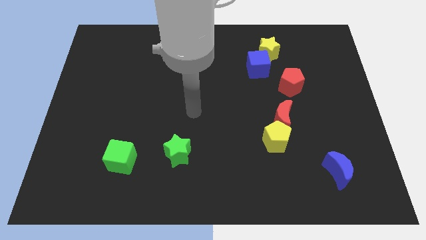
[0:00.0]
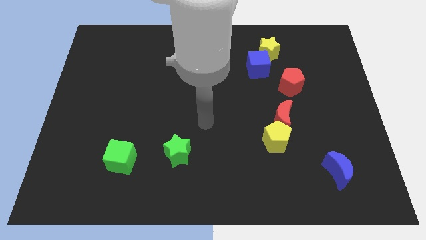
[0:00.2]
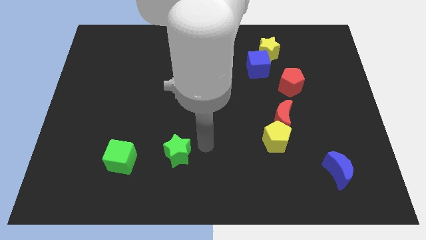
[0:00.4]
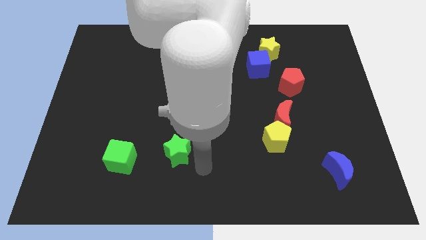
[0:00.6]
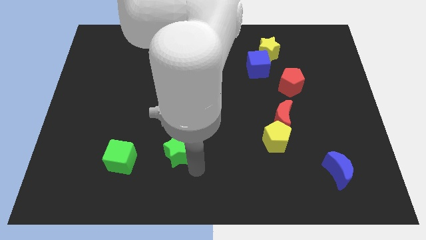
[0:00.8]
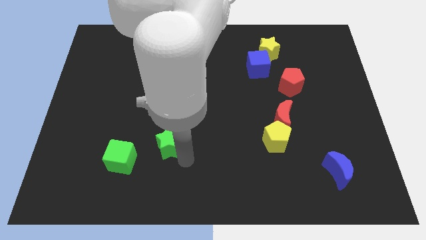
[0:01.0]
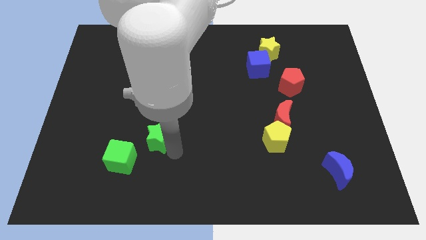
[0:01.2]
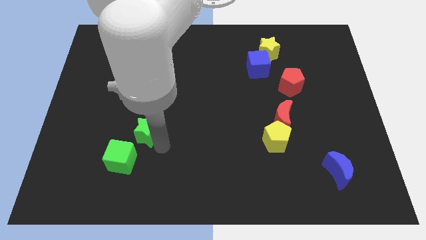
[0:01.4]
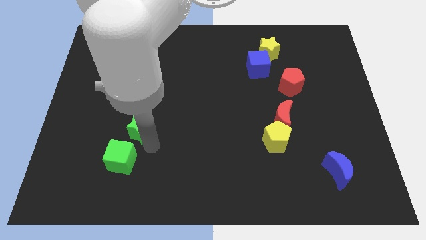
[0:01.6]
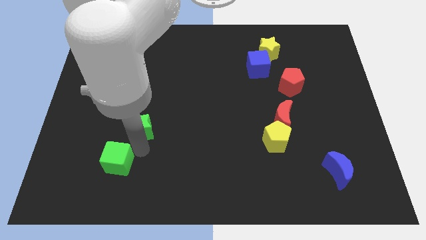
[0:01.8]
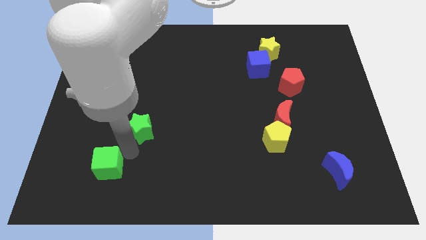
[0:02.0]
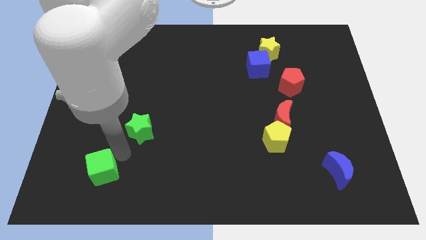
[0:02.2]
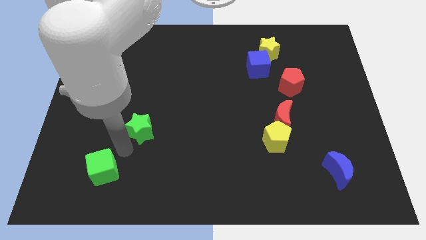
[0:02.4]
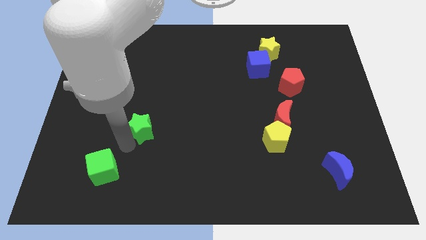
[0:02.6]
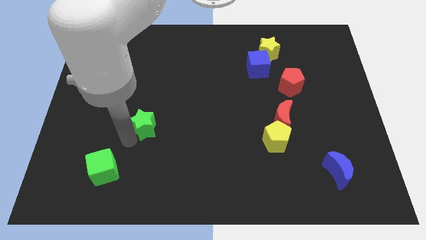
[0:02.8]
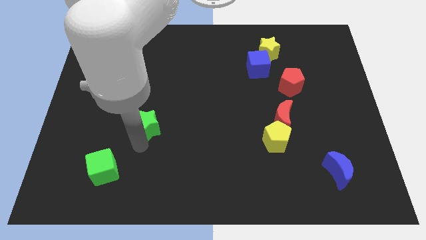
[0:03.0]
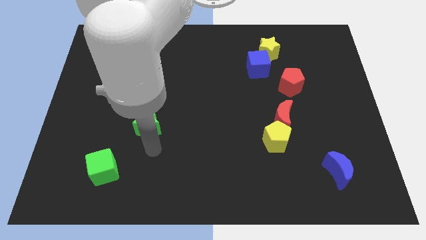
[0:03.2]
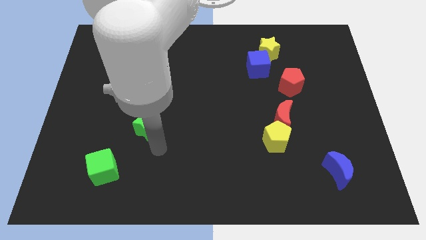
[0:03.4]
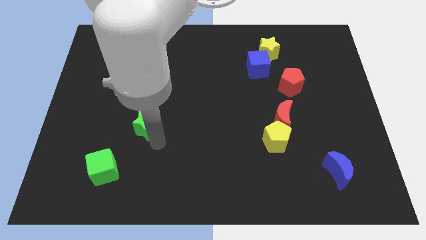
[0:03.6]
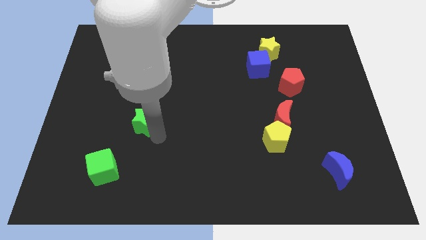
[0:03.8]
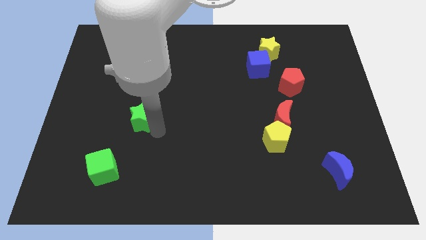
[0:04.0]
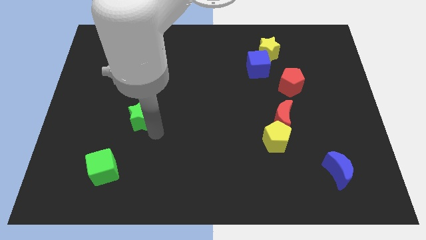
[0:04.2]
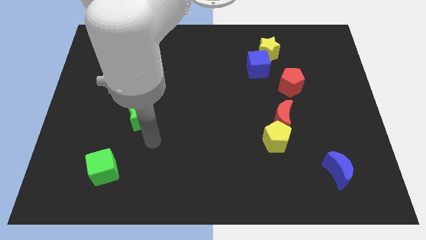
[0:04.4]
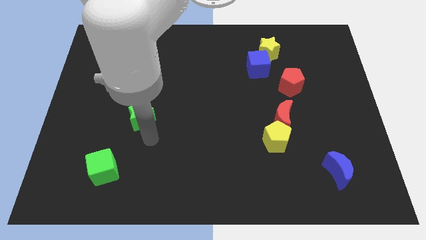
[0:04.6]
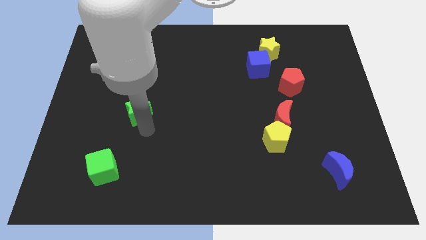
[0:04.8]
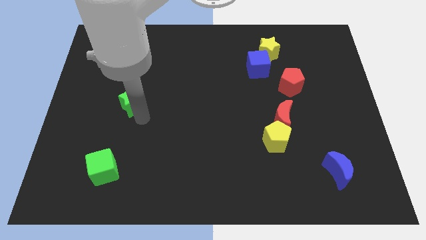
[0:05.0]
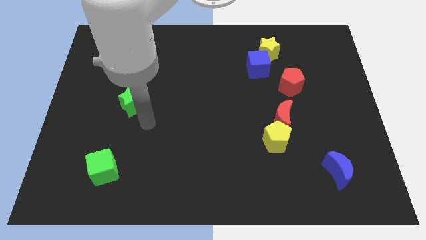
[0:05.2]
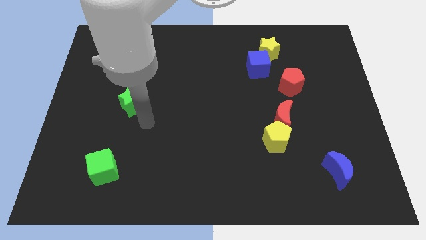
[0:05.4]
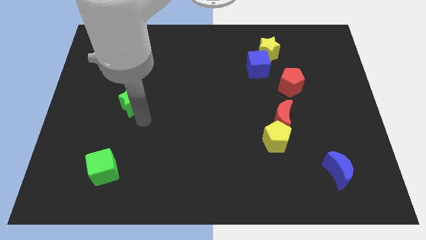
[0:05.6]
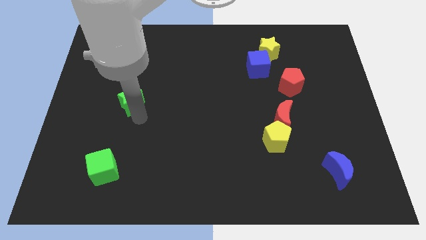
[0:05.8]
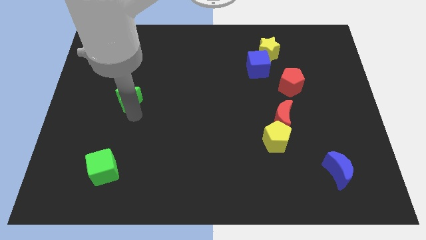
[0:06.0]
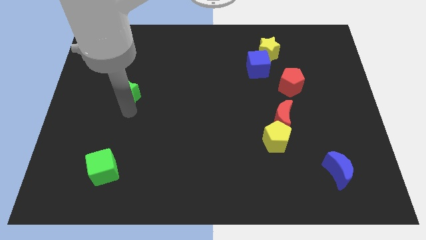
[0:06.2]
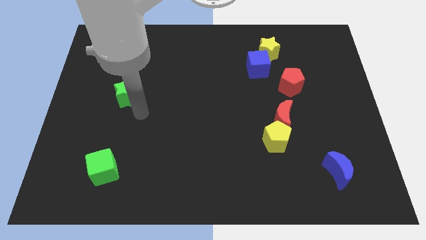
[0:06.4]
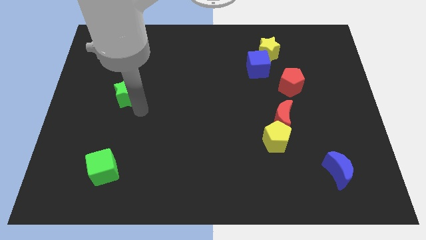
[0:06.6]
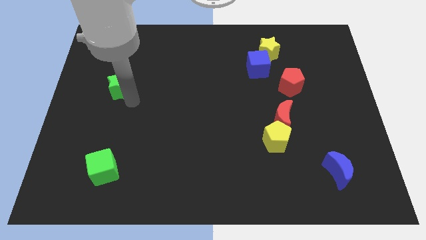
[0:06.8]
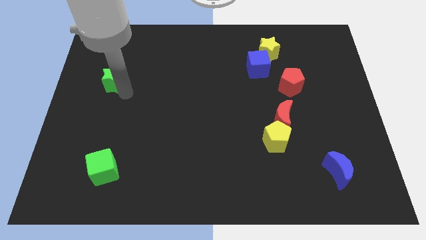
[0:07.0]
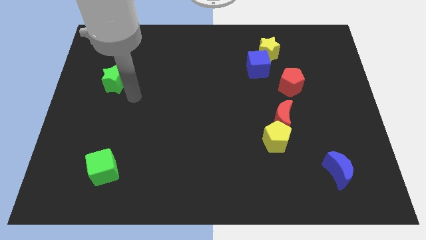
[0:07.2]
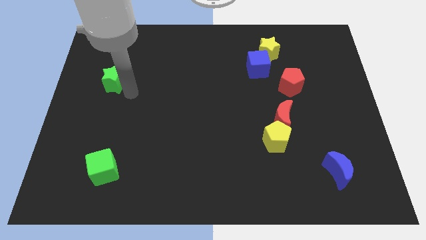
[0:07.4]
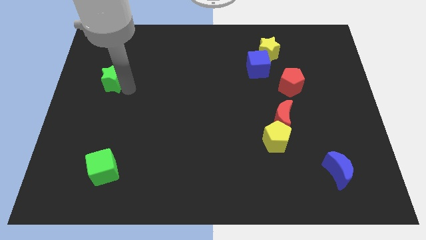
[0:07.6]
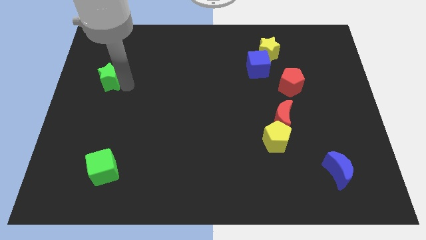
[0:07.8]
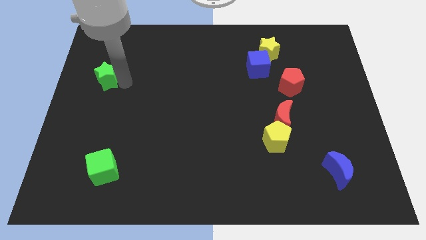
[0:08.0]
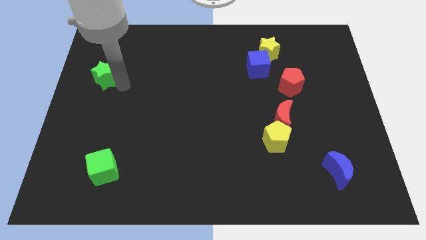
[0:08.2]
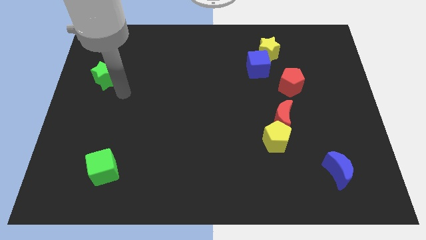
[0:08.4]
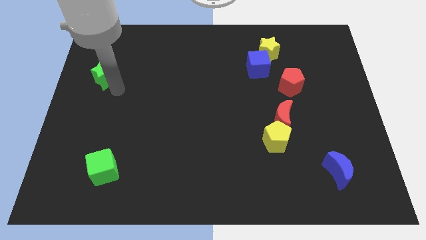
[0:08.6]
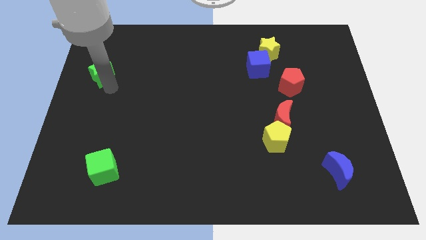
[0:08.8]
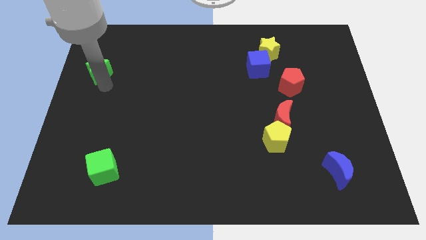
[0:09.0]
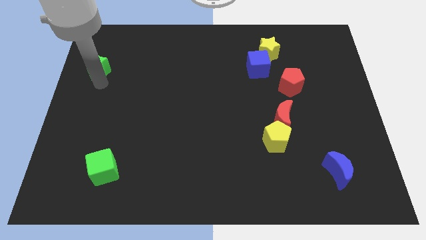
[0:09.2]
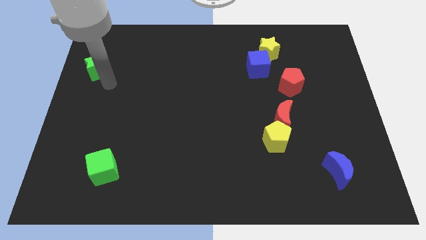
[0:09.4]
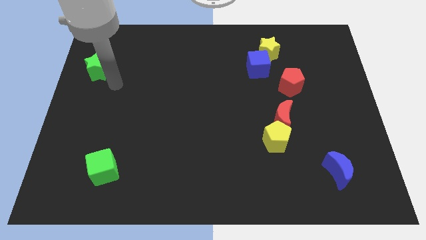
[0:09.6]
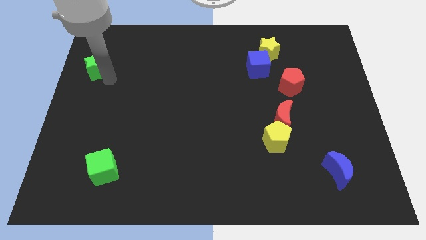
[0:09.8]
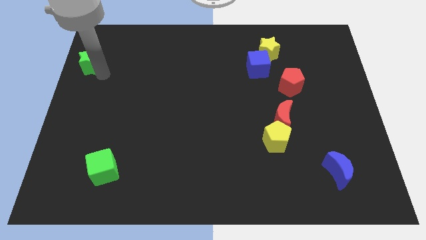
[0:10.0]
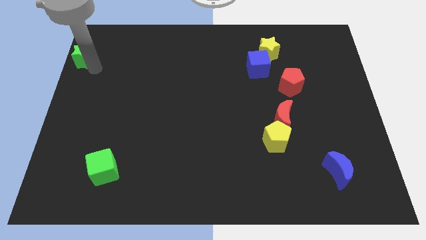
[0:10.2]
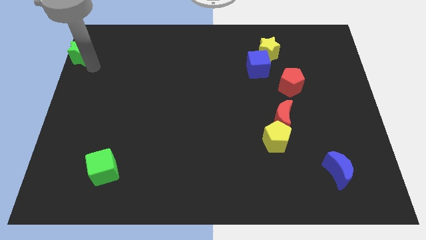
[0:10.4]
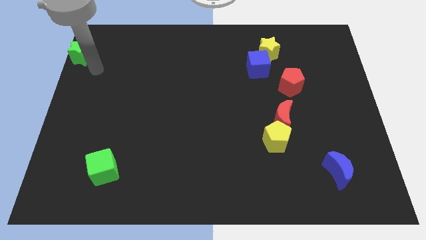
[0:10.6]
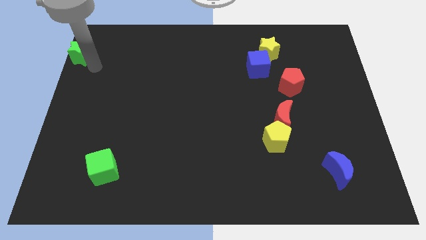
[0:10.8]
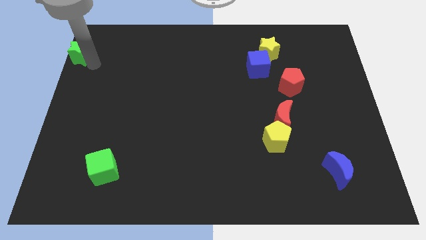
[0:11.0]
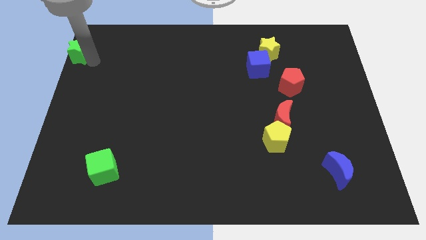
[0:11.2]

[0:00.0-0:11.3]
put the green star to the top left
